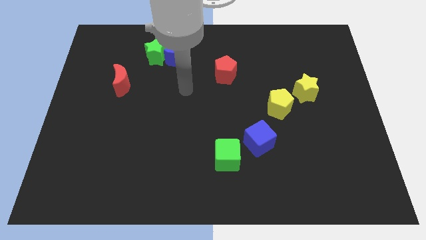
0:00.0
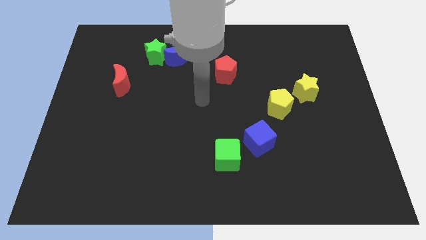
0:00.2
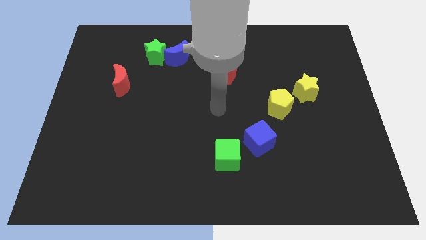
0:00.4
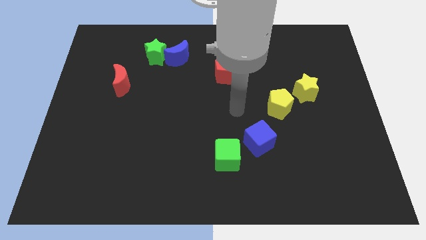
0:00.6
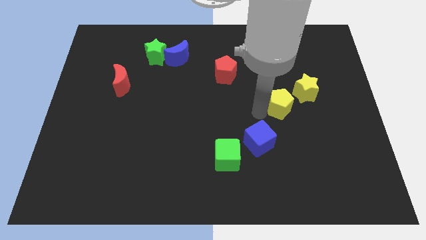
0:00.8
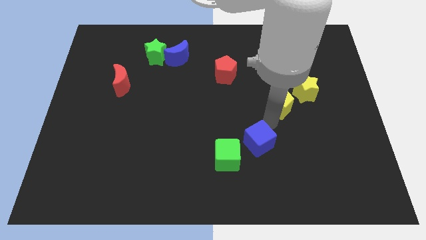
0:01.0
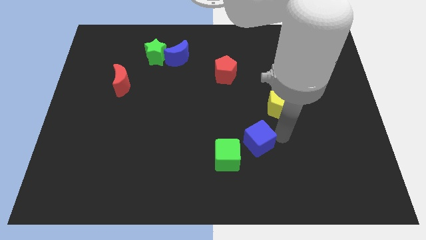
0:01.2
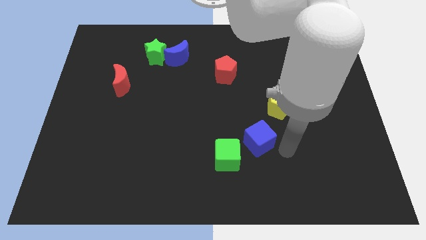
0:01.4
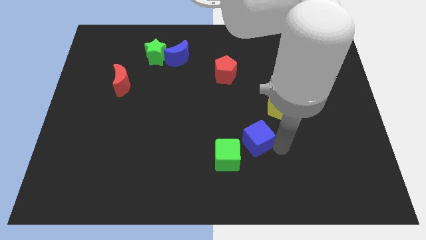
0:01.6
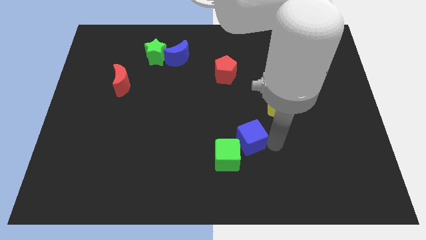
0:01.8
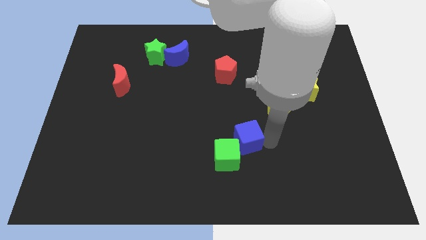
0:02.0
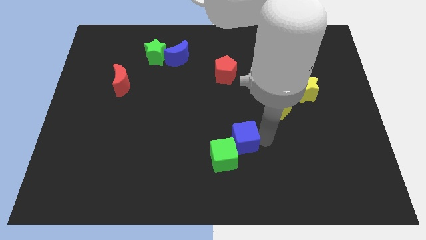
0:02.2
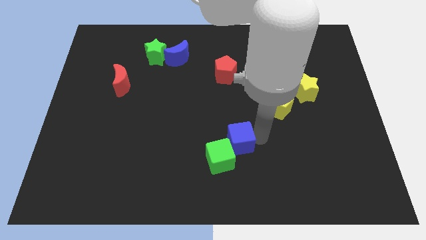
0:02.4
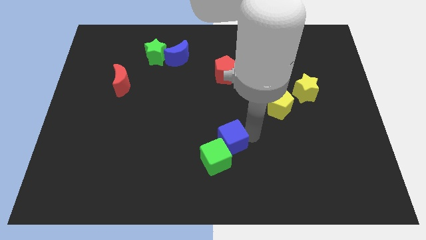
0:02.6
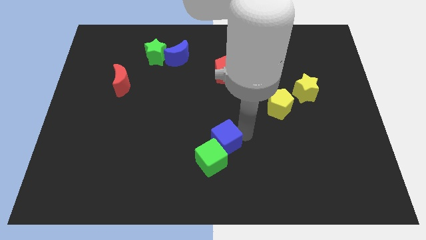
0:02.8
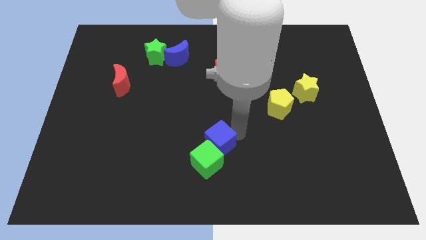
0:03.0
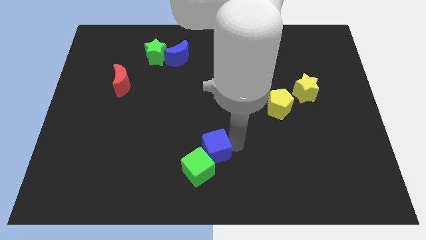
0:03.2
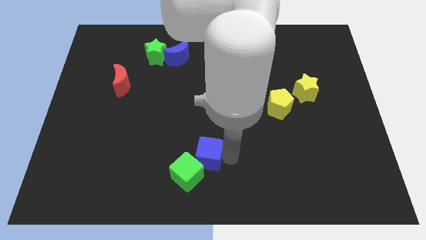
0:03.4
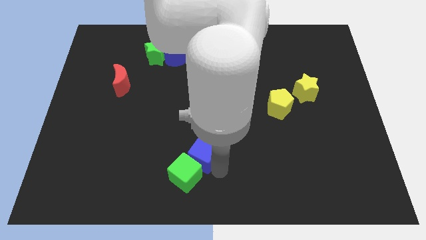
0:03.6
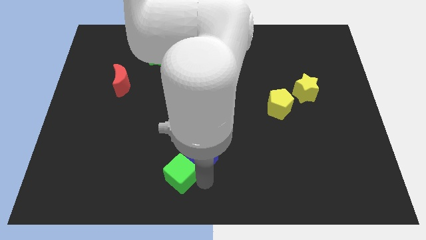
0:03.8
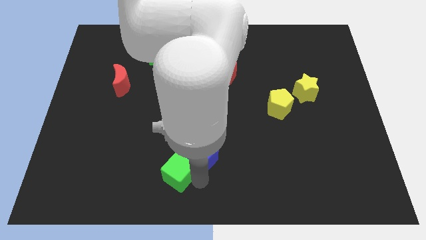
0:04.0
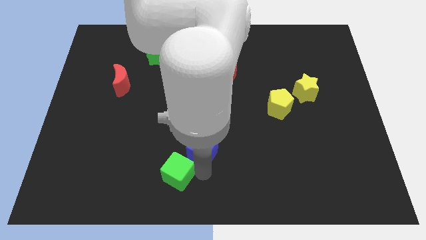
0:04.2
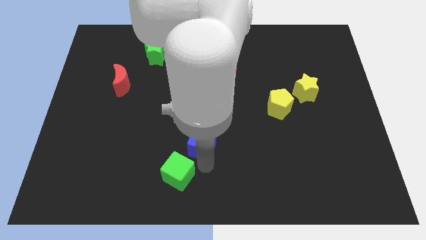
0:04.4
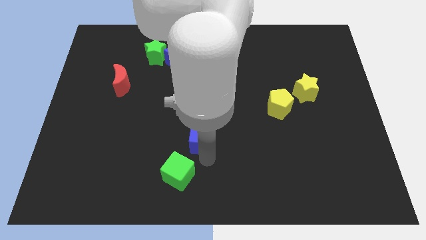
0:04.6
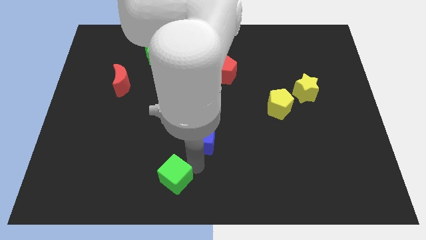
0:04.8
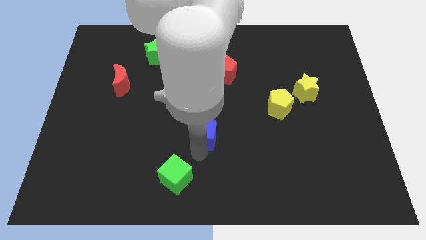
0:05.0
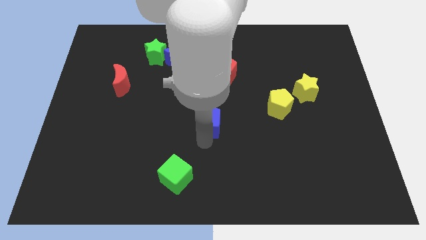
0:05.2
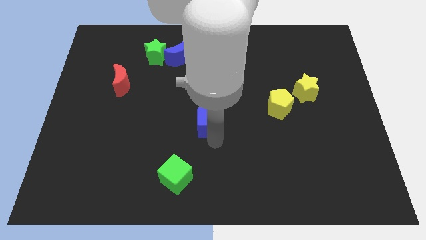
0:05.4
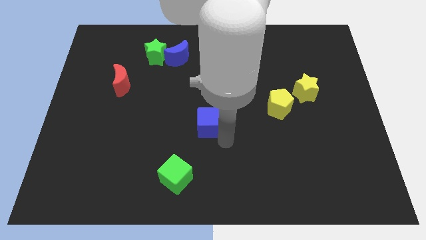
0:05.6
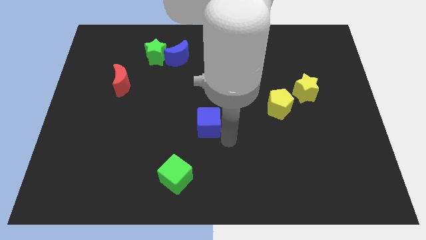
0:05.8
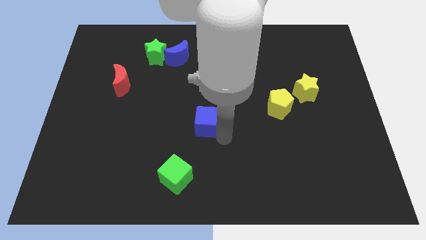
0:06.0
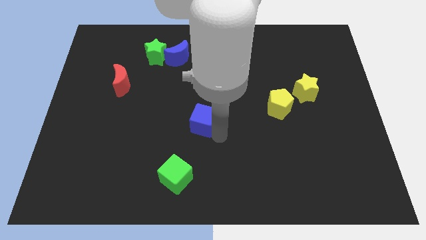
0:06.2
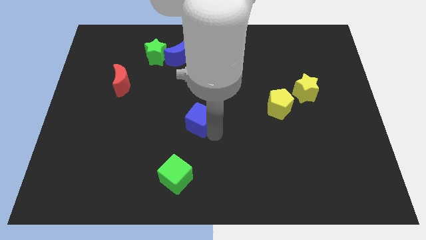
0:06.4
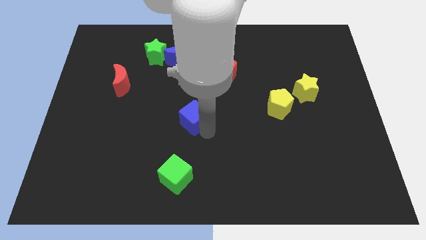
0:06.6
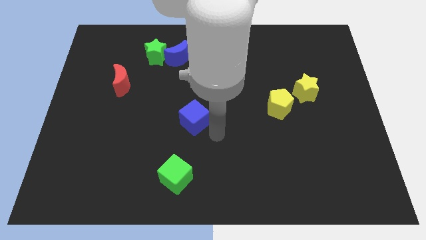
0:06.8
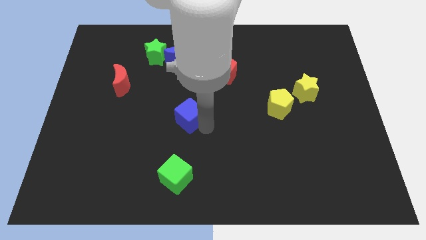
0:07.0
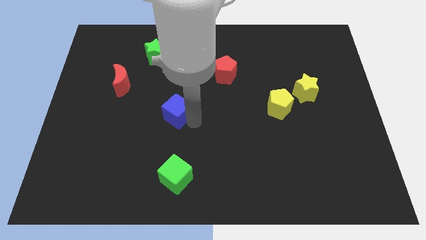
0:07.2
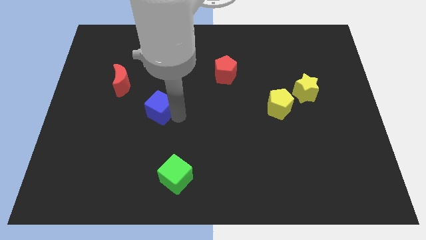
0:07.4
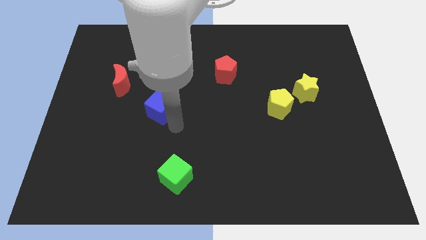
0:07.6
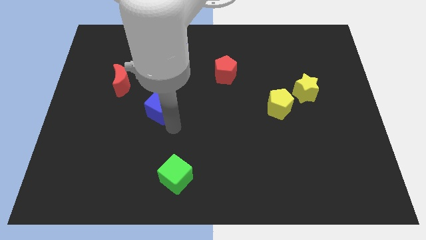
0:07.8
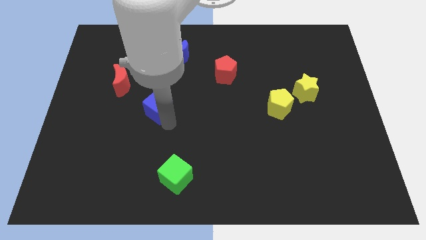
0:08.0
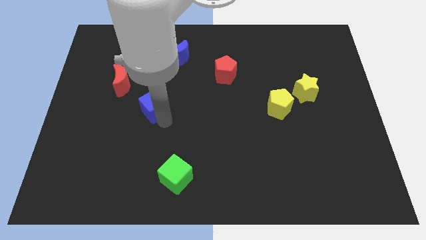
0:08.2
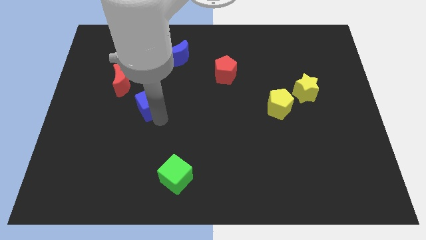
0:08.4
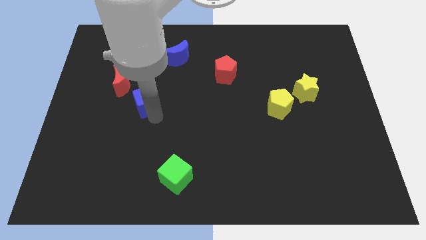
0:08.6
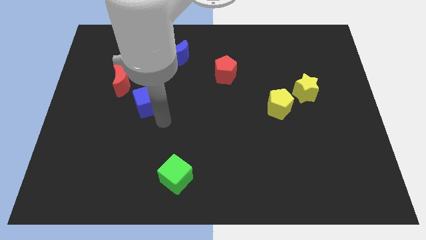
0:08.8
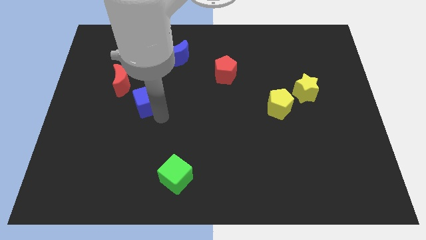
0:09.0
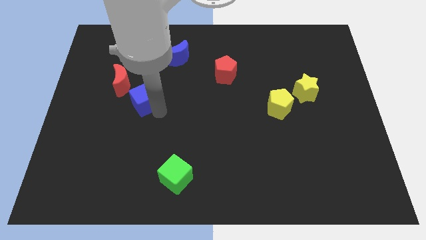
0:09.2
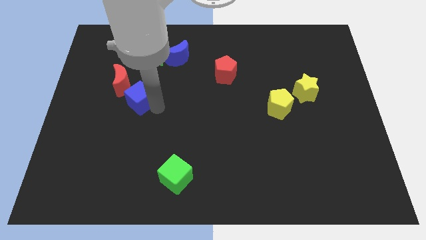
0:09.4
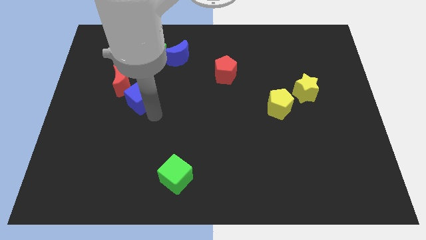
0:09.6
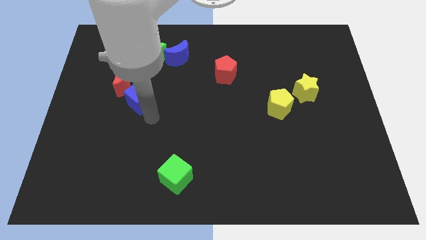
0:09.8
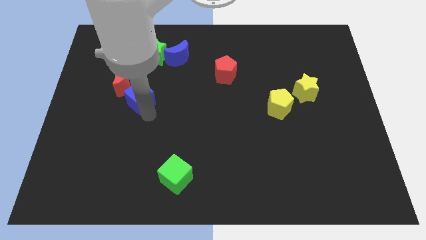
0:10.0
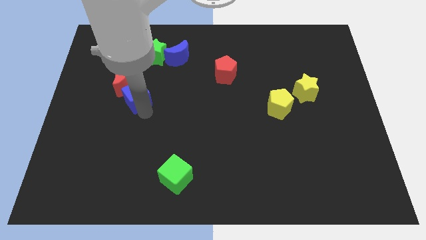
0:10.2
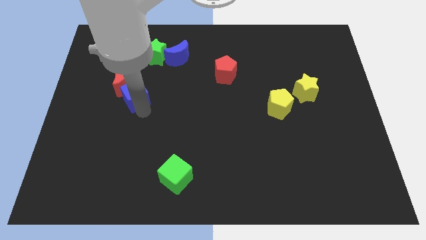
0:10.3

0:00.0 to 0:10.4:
move the blue cube to the red moon

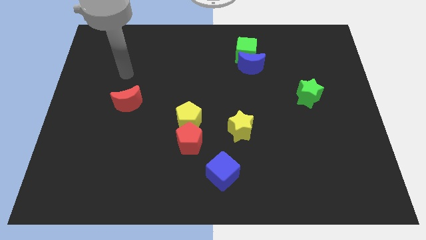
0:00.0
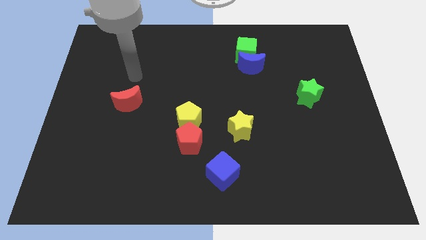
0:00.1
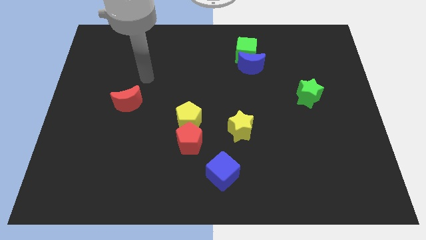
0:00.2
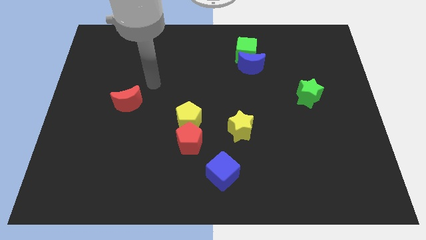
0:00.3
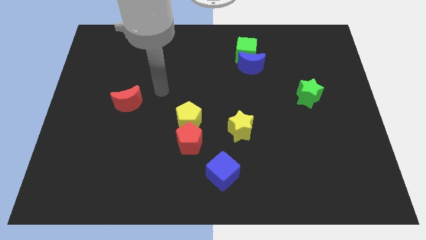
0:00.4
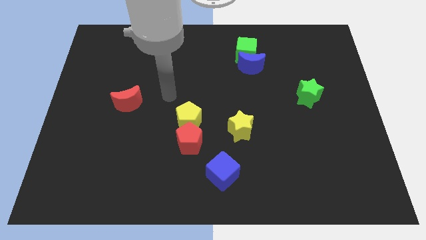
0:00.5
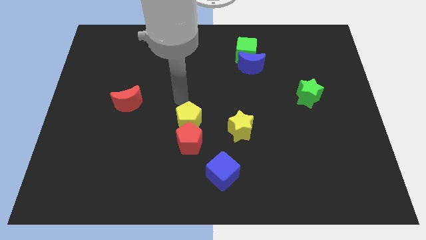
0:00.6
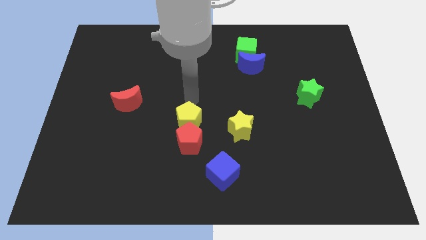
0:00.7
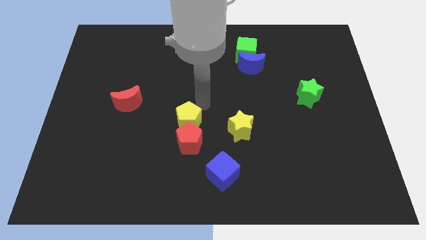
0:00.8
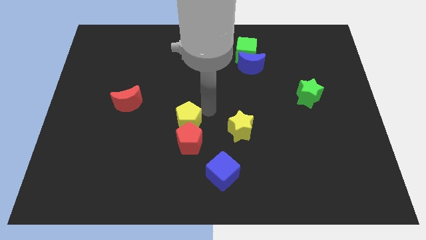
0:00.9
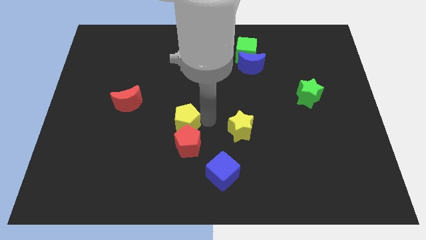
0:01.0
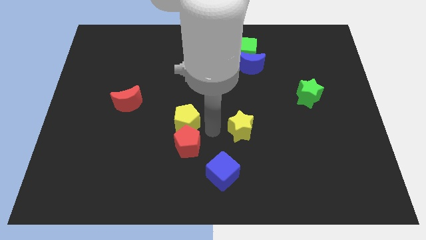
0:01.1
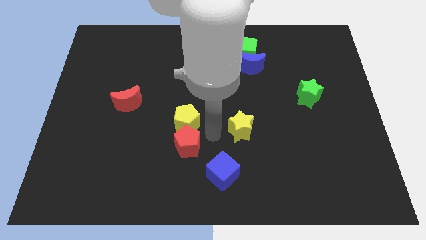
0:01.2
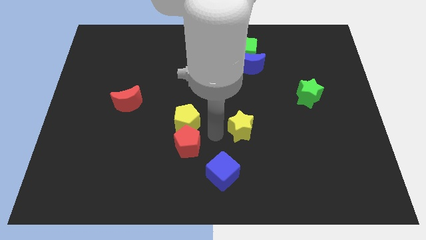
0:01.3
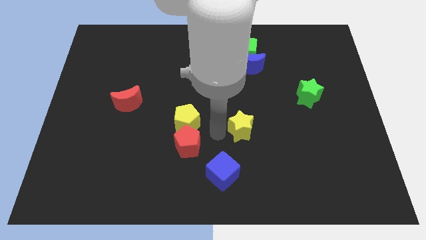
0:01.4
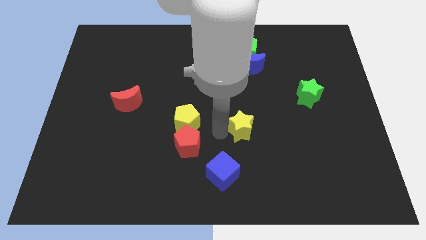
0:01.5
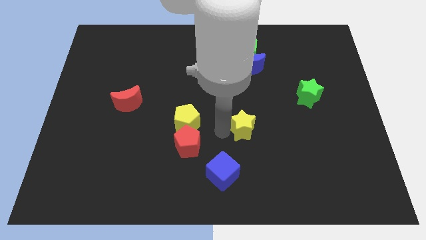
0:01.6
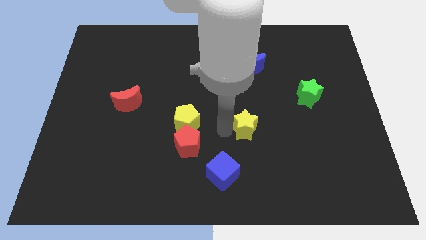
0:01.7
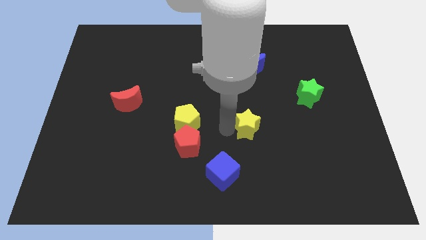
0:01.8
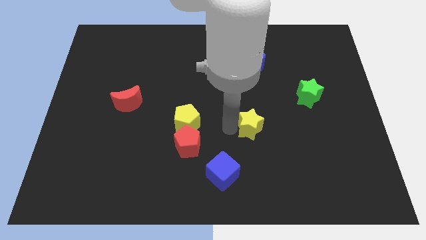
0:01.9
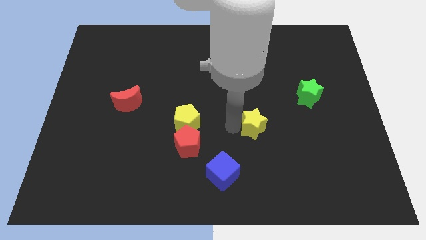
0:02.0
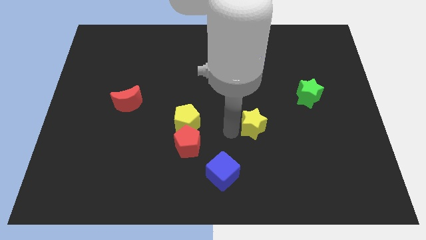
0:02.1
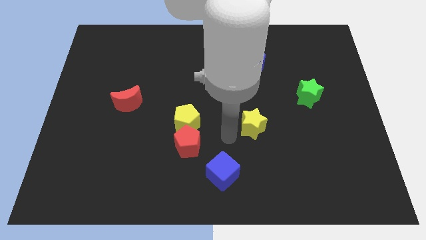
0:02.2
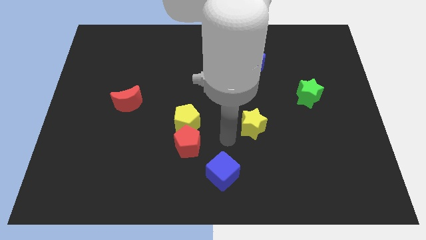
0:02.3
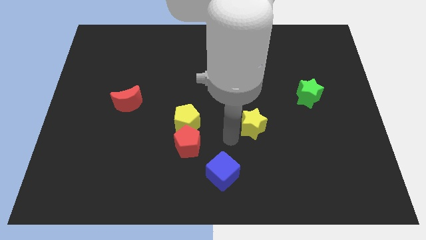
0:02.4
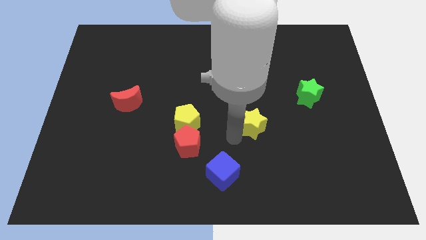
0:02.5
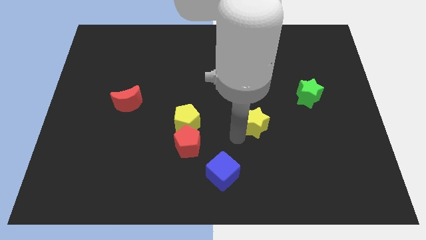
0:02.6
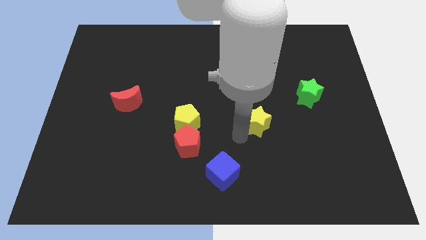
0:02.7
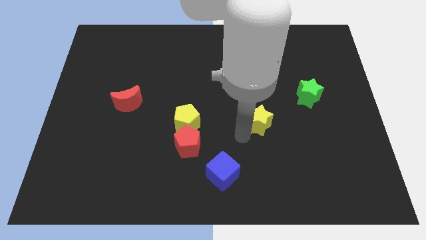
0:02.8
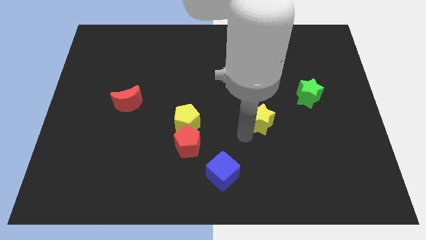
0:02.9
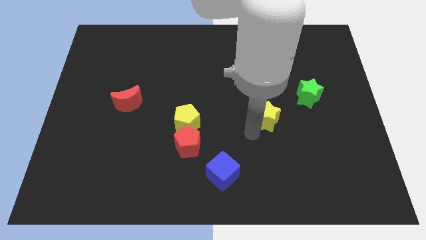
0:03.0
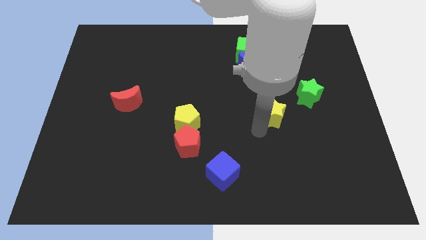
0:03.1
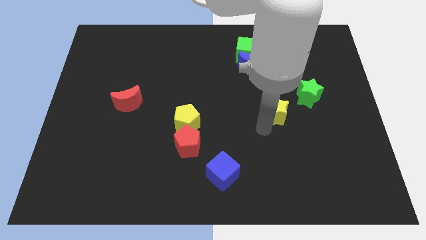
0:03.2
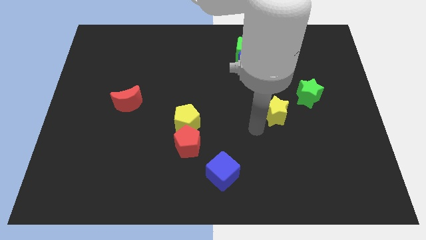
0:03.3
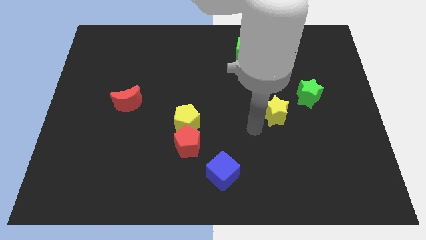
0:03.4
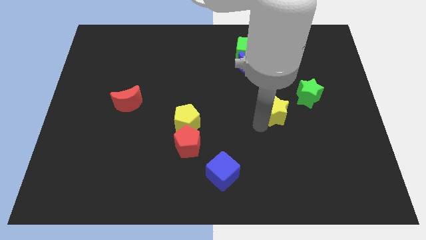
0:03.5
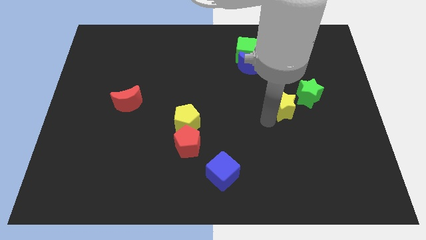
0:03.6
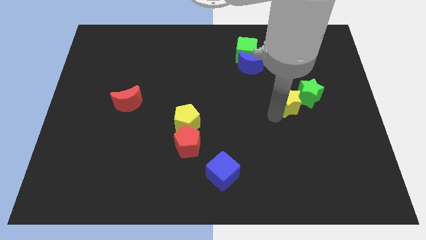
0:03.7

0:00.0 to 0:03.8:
put the yellow star towards the green star
